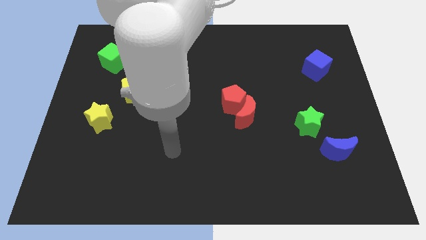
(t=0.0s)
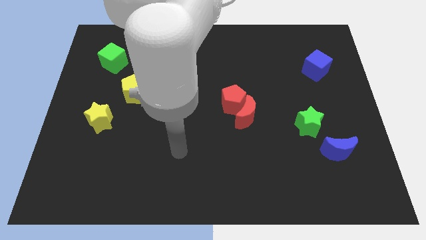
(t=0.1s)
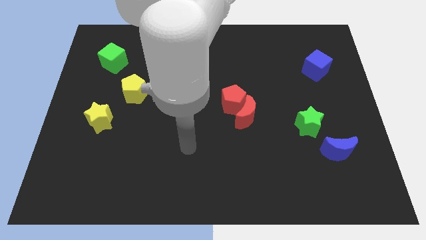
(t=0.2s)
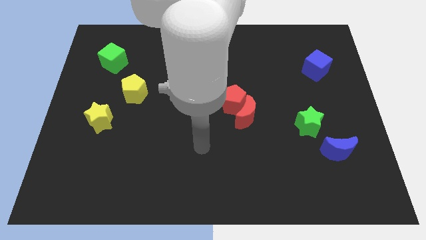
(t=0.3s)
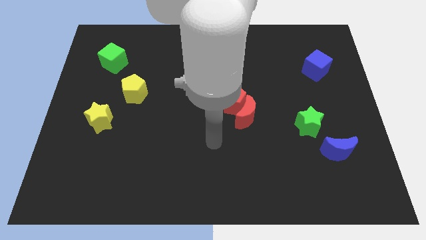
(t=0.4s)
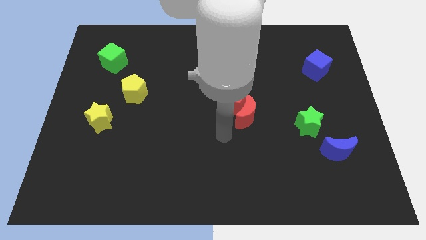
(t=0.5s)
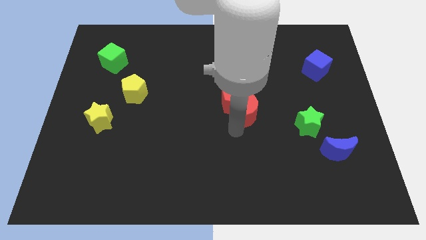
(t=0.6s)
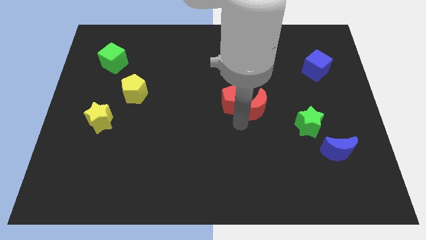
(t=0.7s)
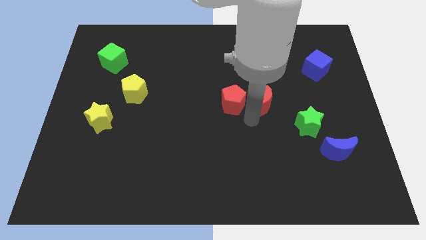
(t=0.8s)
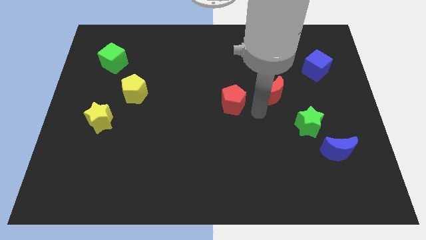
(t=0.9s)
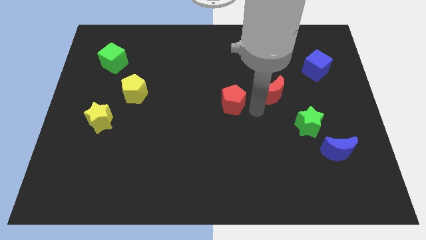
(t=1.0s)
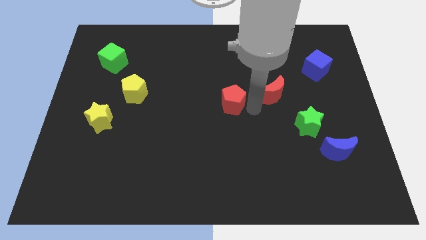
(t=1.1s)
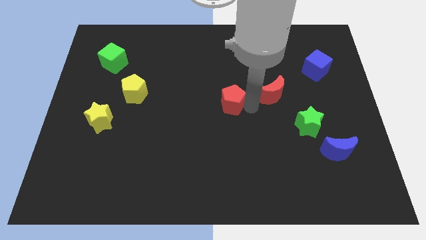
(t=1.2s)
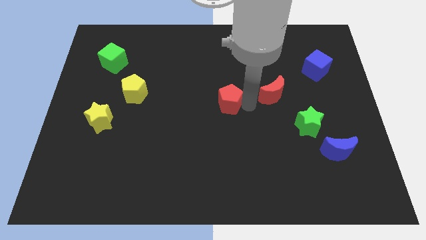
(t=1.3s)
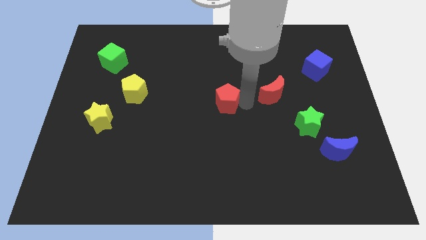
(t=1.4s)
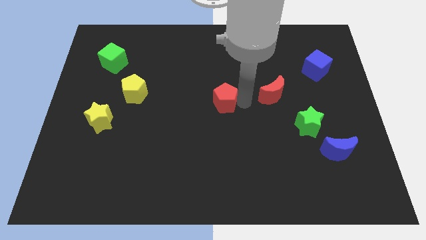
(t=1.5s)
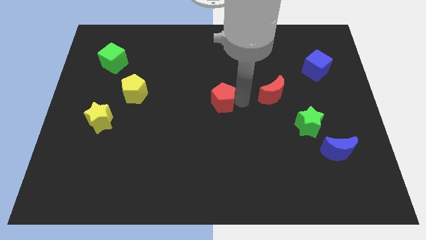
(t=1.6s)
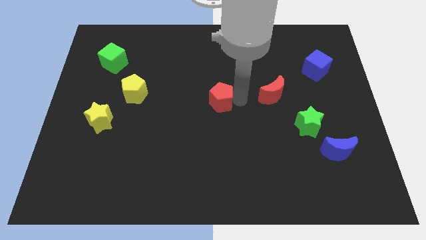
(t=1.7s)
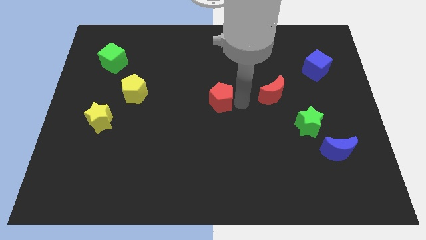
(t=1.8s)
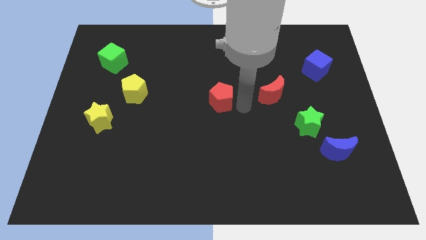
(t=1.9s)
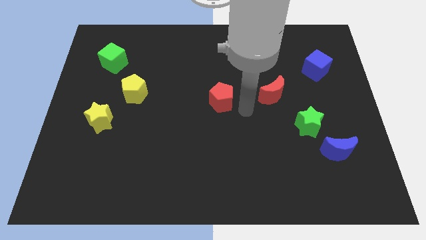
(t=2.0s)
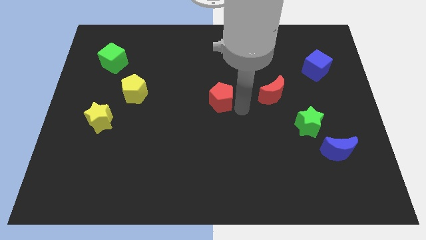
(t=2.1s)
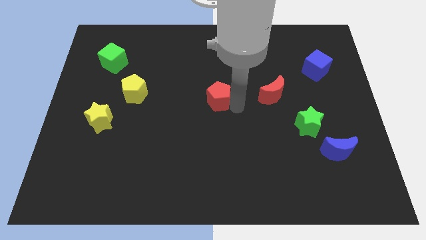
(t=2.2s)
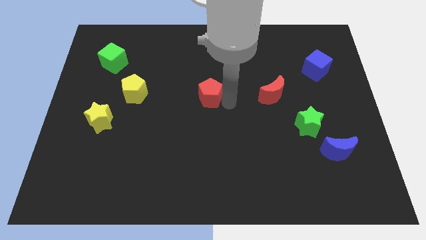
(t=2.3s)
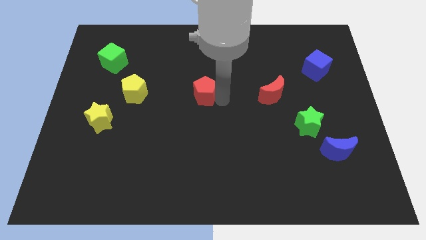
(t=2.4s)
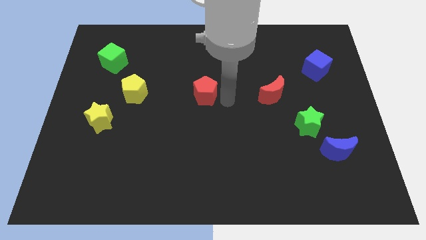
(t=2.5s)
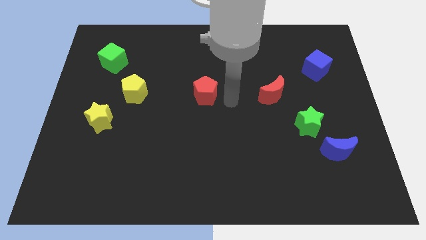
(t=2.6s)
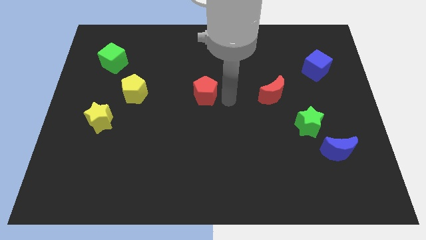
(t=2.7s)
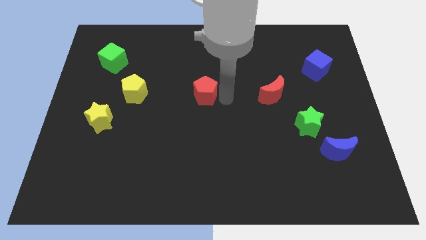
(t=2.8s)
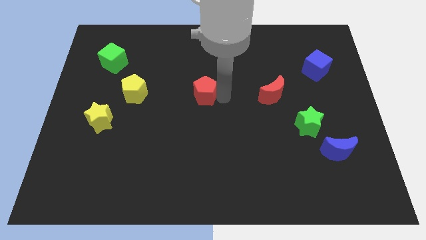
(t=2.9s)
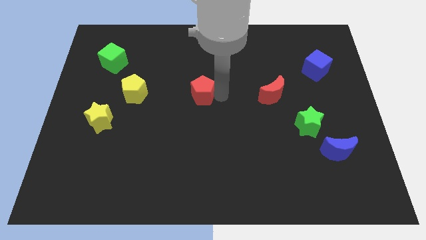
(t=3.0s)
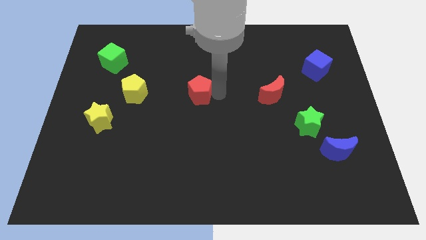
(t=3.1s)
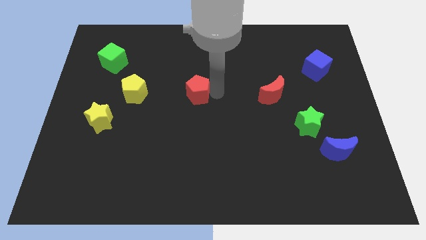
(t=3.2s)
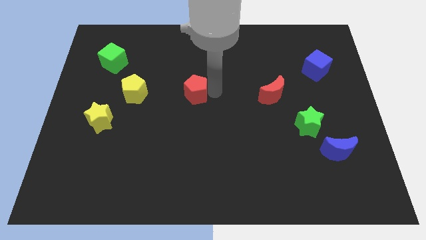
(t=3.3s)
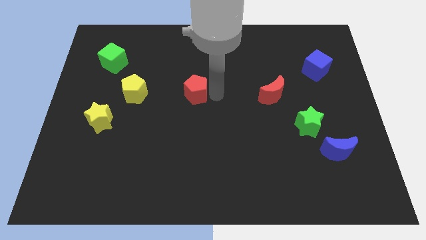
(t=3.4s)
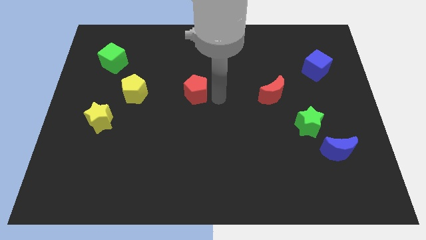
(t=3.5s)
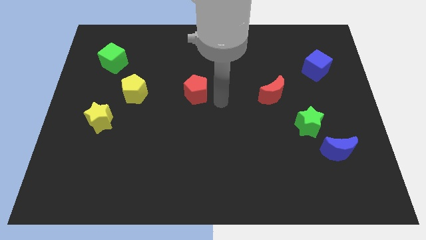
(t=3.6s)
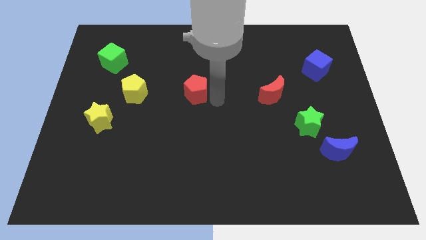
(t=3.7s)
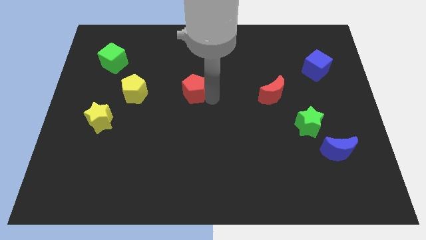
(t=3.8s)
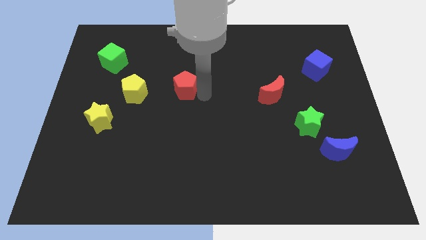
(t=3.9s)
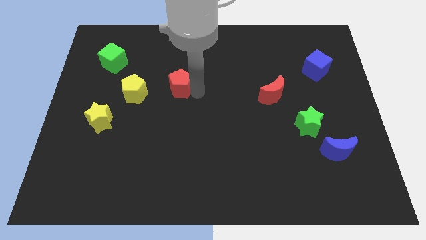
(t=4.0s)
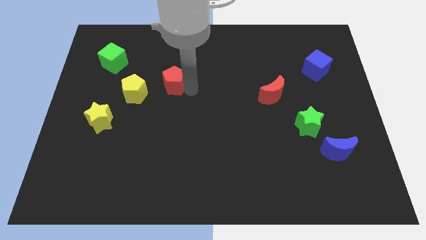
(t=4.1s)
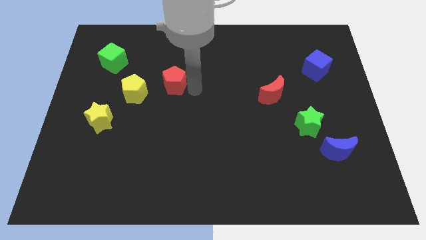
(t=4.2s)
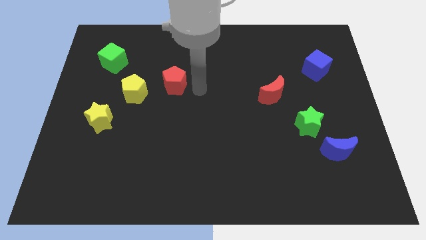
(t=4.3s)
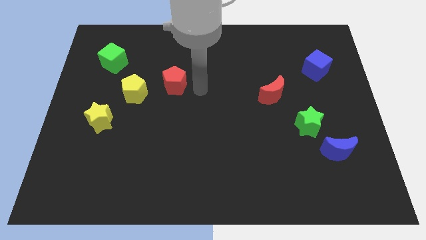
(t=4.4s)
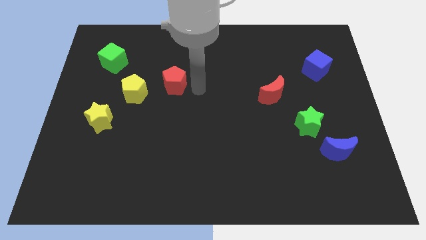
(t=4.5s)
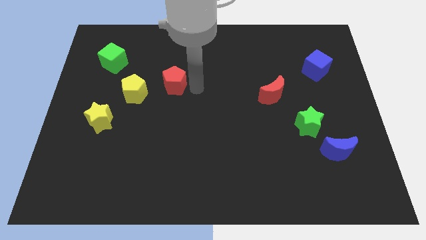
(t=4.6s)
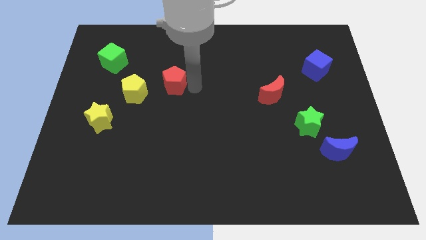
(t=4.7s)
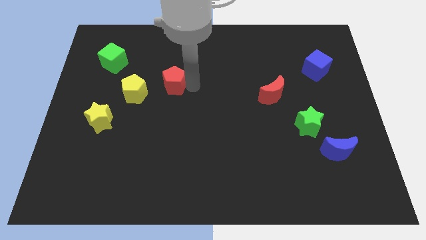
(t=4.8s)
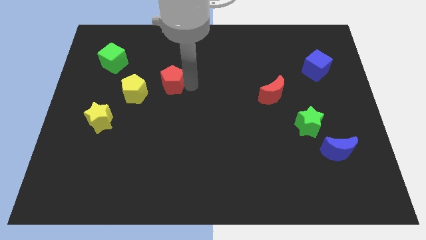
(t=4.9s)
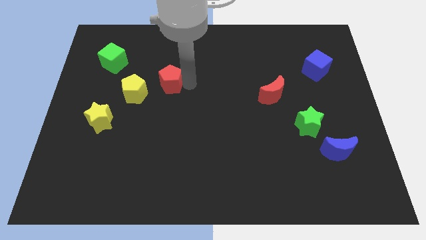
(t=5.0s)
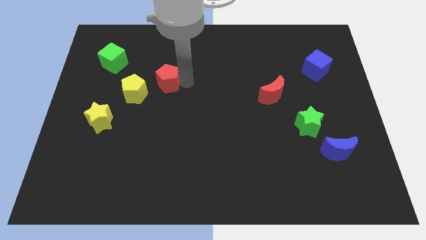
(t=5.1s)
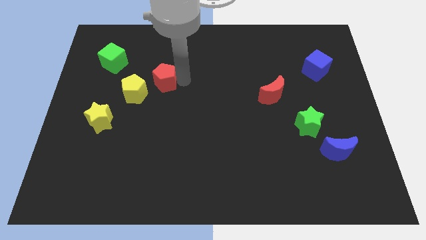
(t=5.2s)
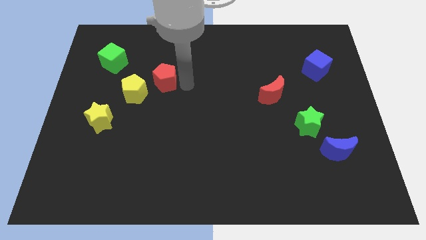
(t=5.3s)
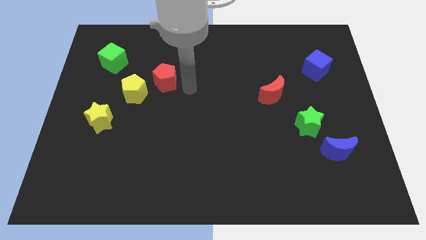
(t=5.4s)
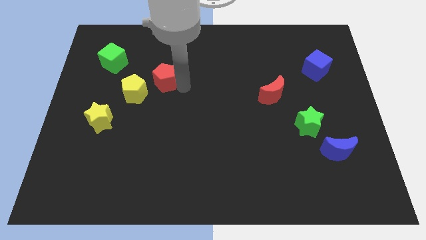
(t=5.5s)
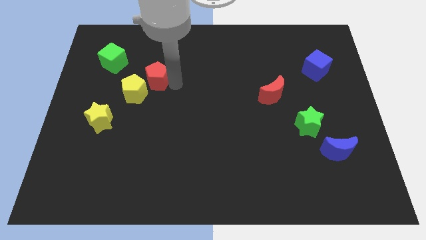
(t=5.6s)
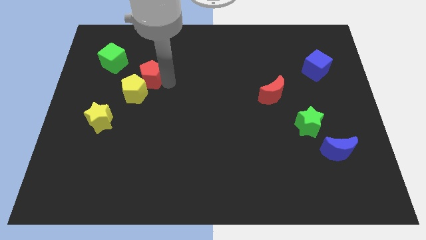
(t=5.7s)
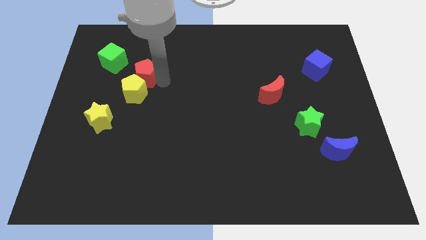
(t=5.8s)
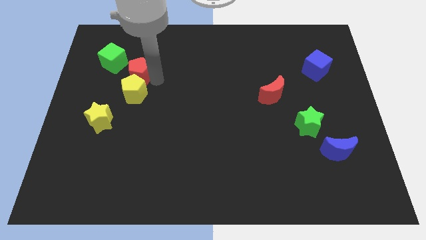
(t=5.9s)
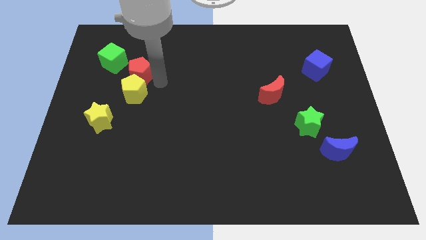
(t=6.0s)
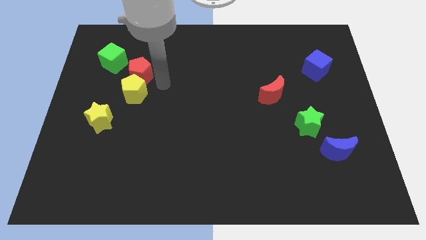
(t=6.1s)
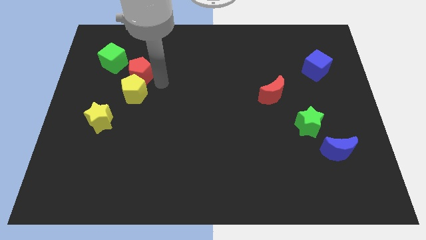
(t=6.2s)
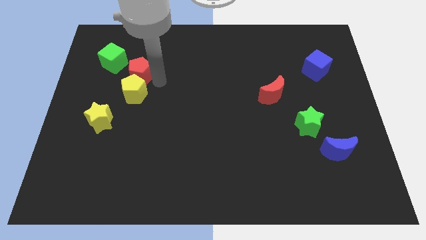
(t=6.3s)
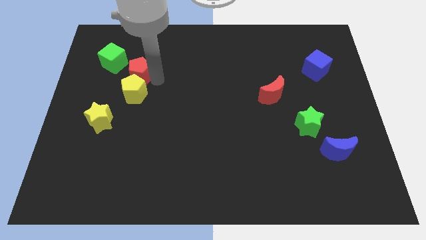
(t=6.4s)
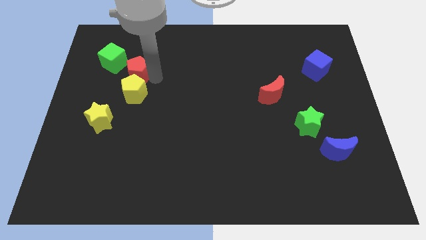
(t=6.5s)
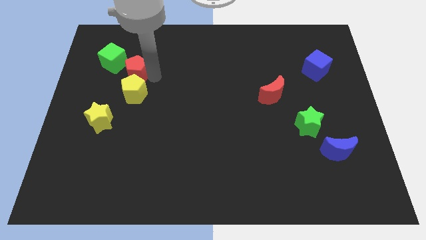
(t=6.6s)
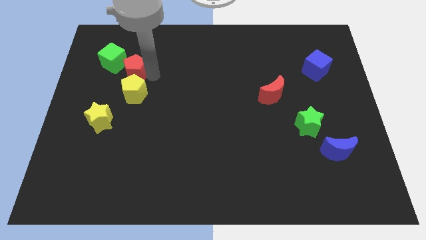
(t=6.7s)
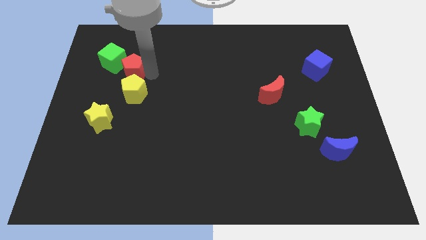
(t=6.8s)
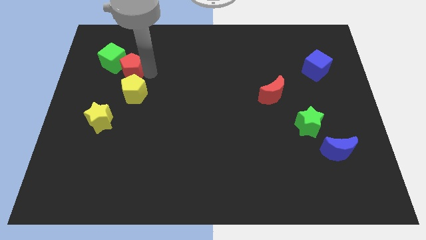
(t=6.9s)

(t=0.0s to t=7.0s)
put the red pentagon close to the green cube

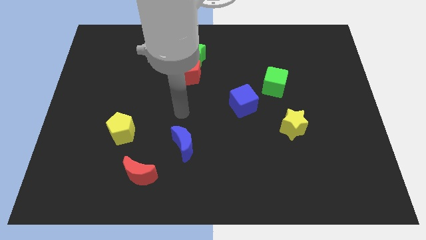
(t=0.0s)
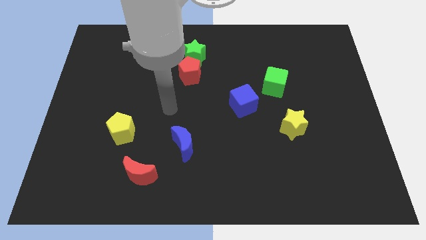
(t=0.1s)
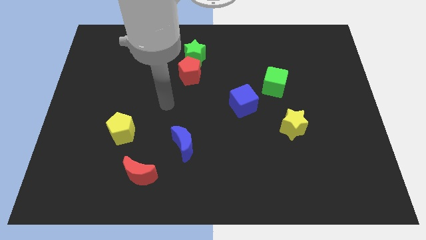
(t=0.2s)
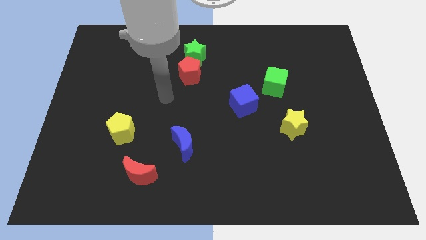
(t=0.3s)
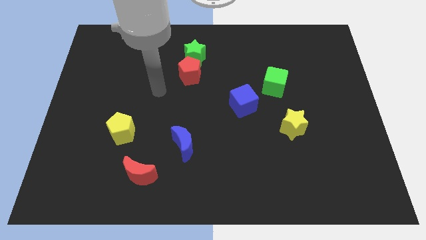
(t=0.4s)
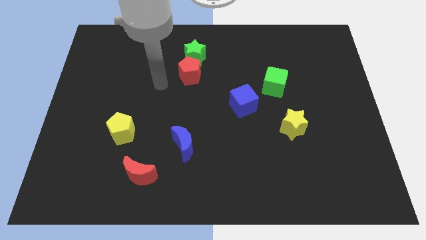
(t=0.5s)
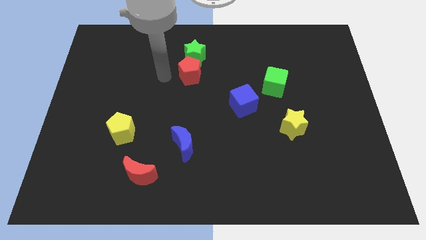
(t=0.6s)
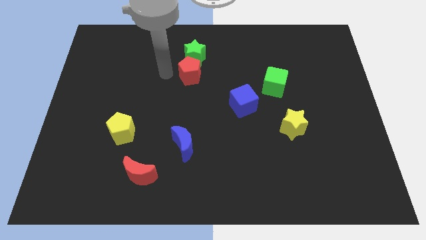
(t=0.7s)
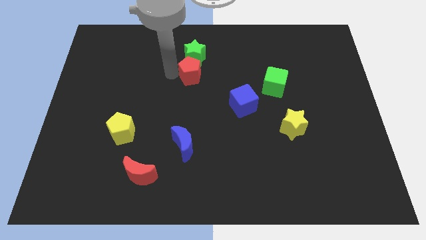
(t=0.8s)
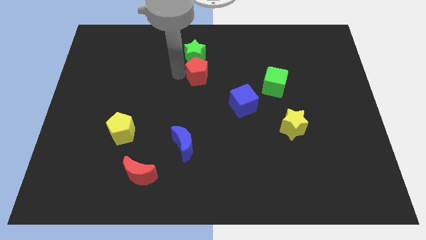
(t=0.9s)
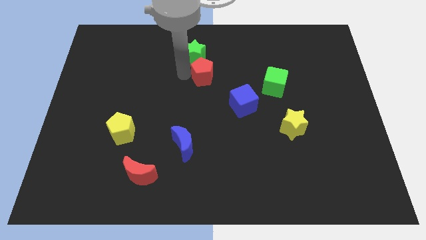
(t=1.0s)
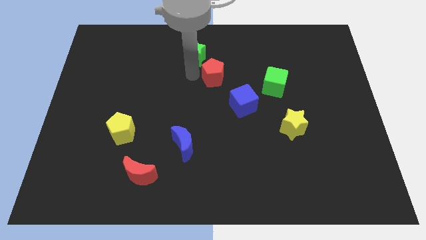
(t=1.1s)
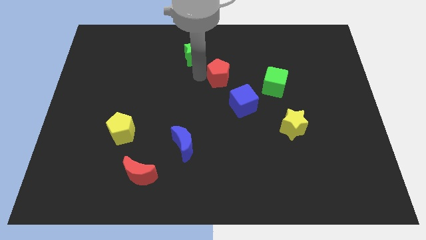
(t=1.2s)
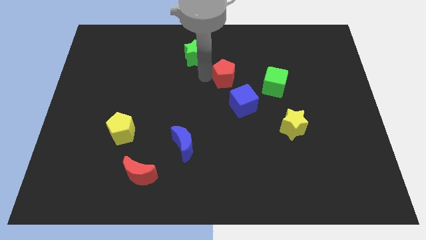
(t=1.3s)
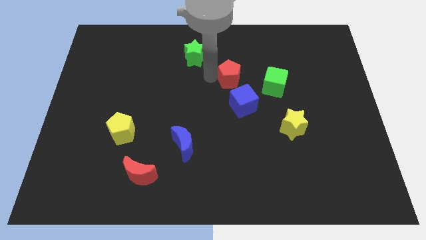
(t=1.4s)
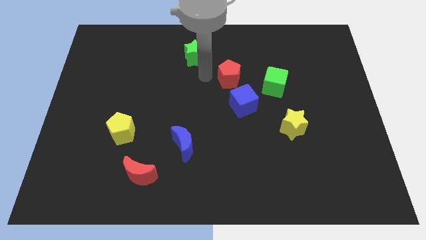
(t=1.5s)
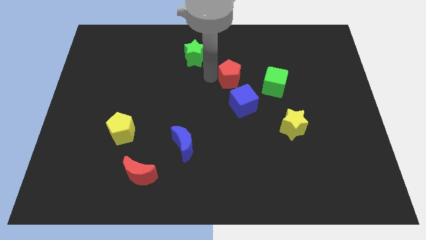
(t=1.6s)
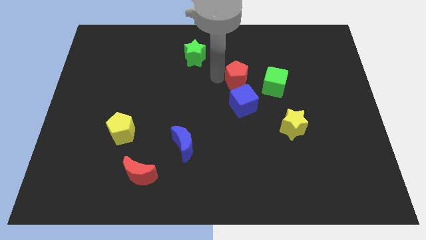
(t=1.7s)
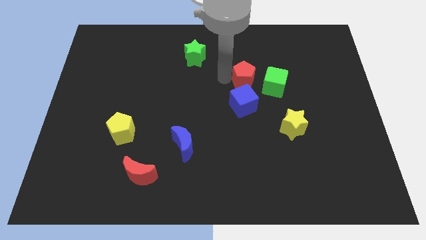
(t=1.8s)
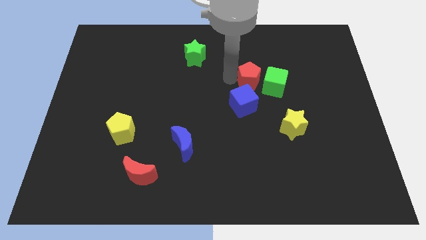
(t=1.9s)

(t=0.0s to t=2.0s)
slide the red pentagon next to the green cube
